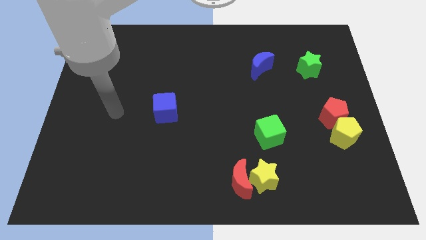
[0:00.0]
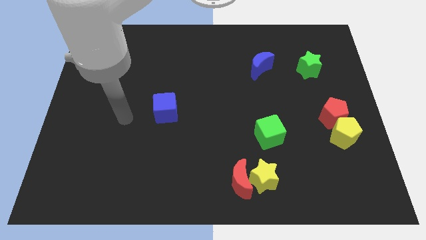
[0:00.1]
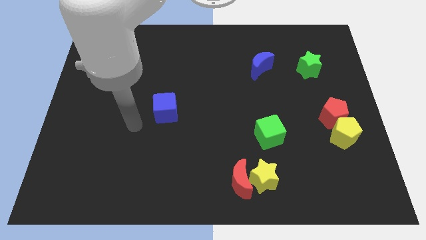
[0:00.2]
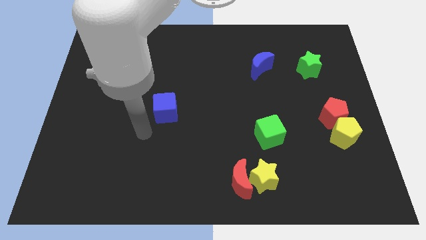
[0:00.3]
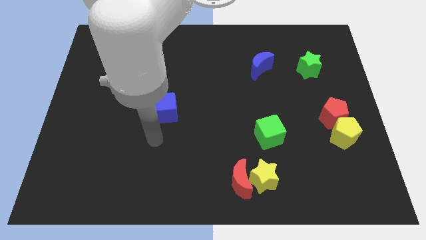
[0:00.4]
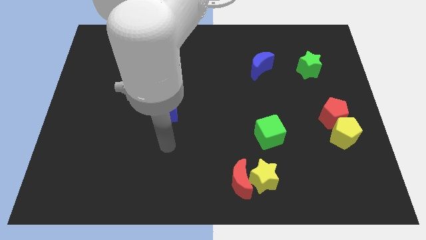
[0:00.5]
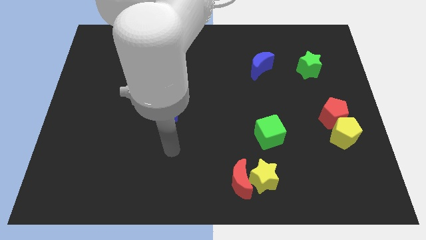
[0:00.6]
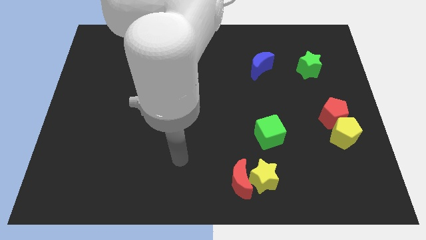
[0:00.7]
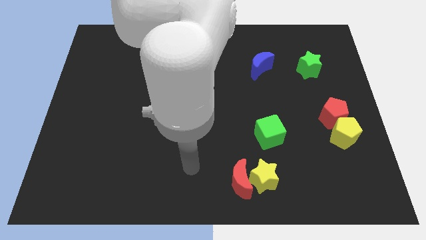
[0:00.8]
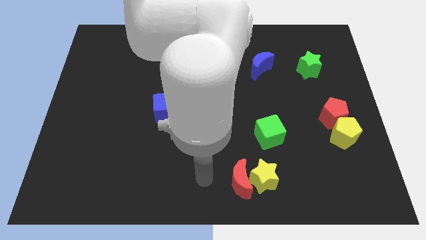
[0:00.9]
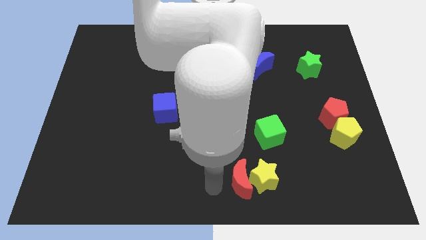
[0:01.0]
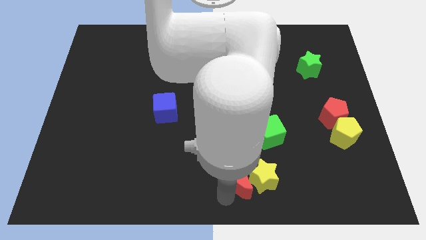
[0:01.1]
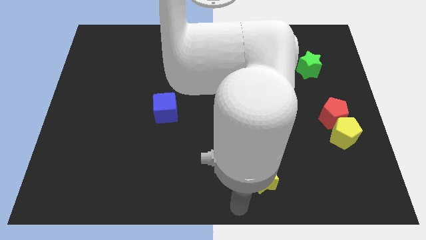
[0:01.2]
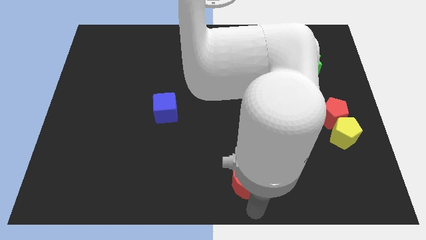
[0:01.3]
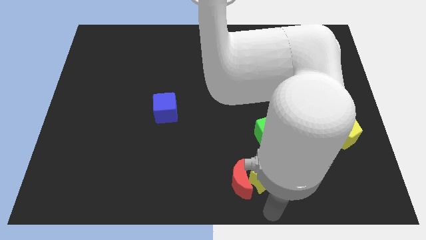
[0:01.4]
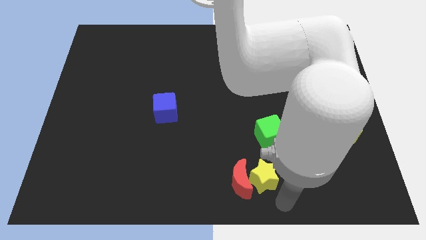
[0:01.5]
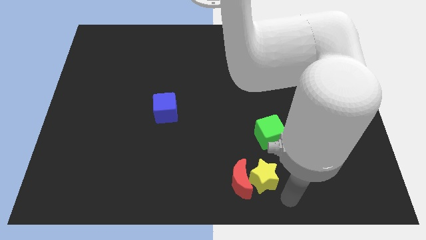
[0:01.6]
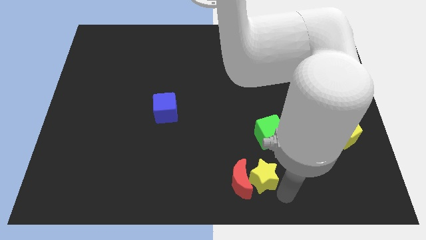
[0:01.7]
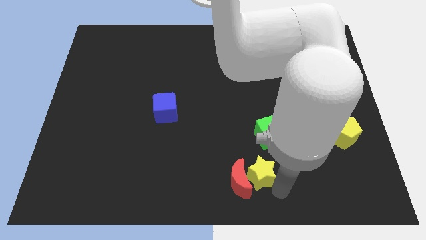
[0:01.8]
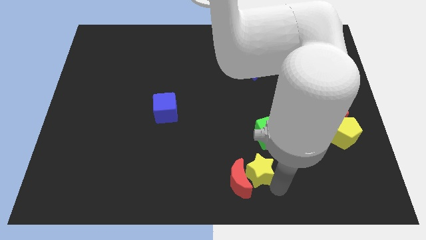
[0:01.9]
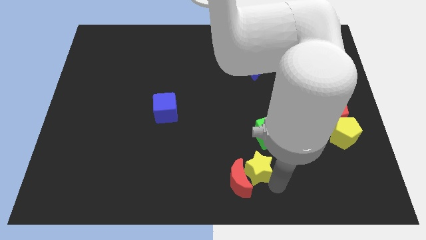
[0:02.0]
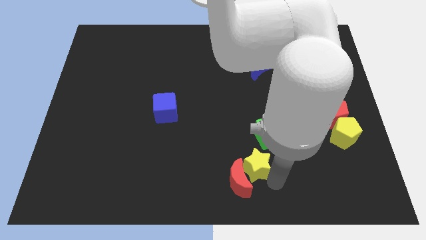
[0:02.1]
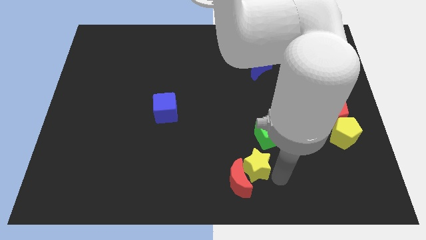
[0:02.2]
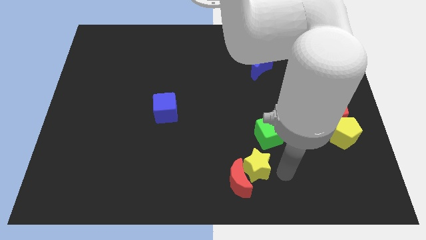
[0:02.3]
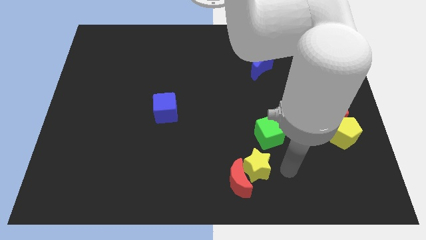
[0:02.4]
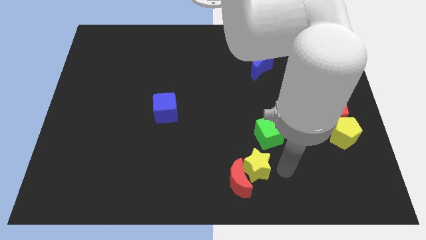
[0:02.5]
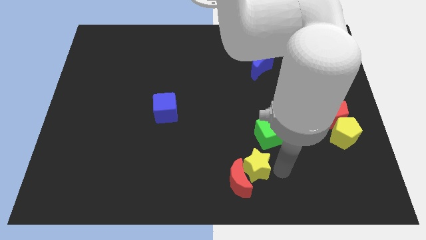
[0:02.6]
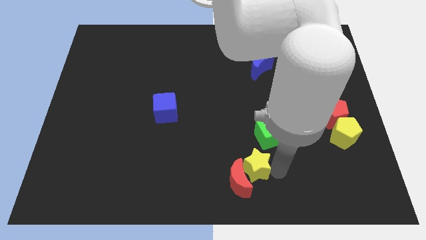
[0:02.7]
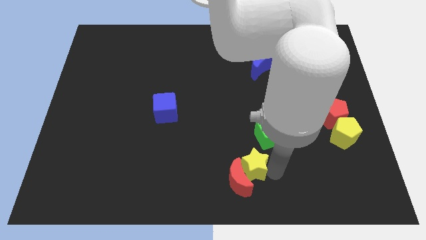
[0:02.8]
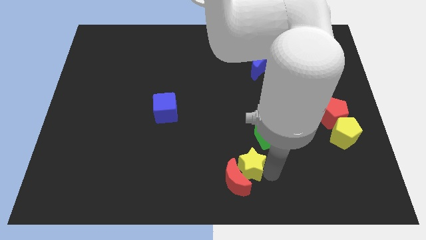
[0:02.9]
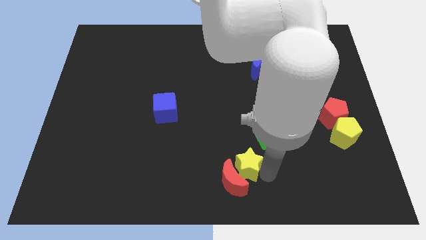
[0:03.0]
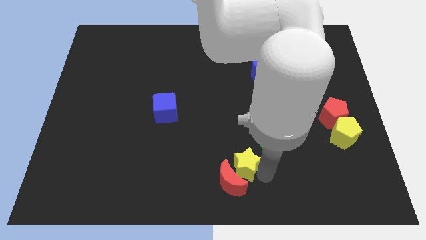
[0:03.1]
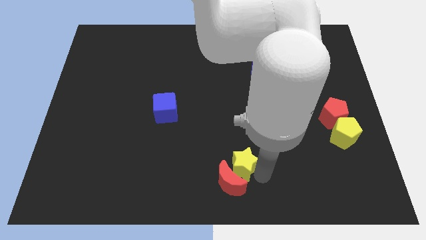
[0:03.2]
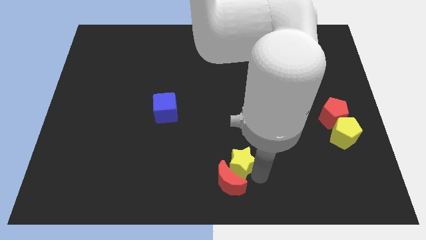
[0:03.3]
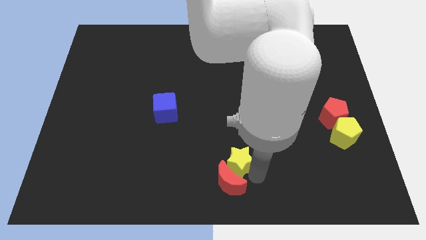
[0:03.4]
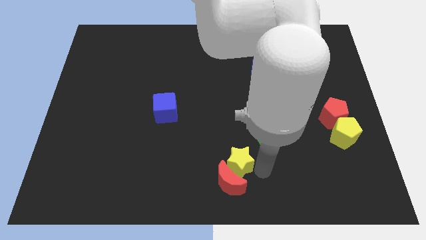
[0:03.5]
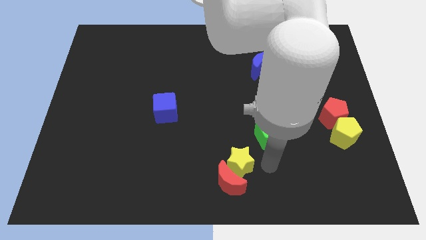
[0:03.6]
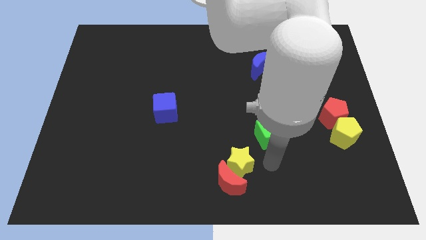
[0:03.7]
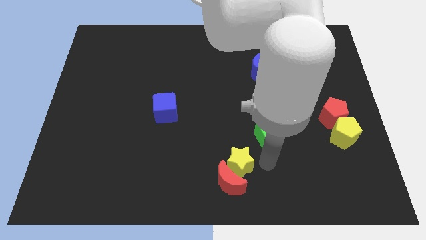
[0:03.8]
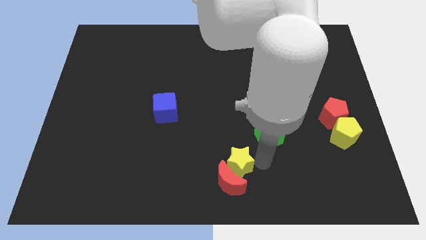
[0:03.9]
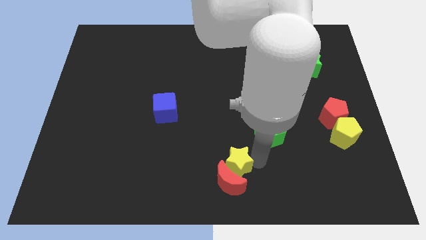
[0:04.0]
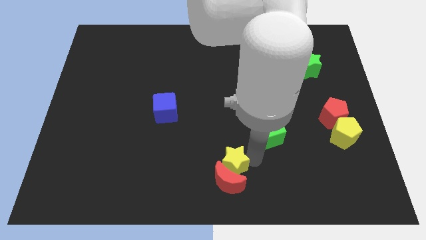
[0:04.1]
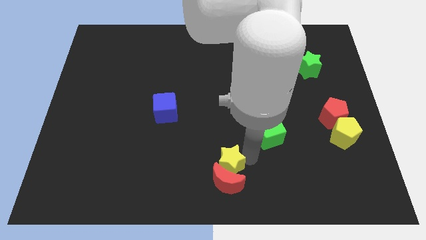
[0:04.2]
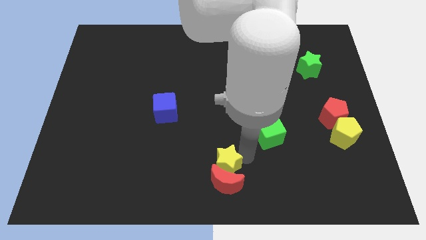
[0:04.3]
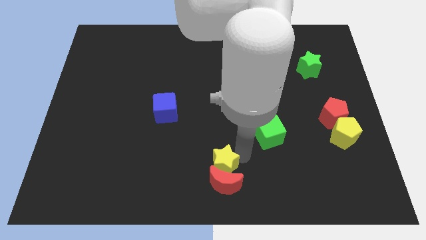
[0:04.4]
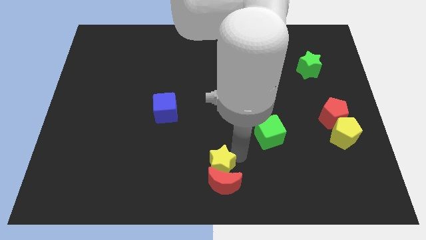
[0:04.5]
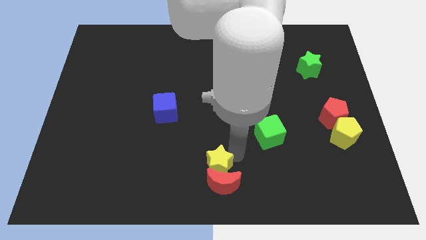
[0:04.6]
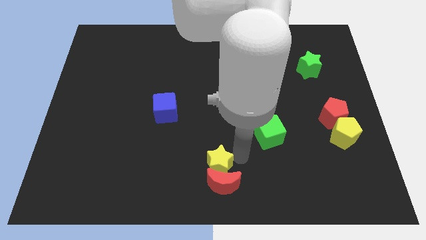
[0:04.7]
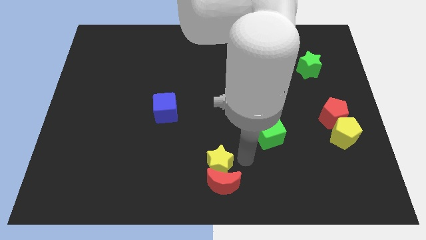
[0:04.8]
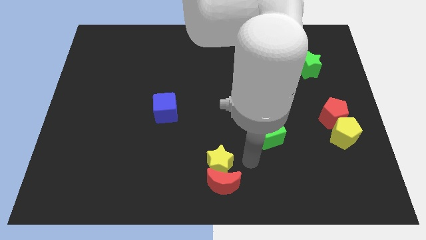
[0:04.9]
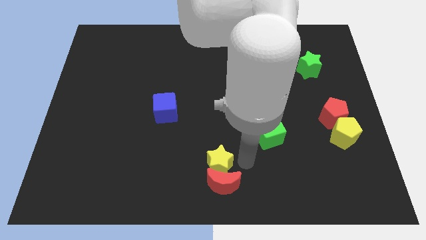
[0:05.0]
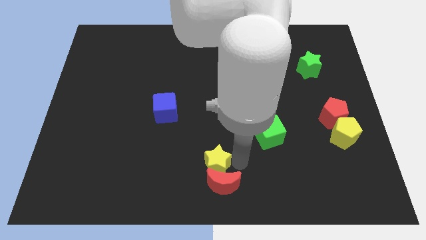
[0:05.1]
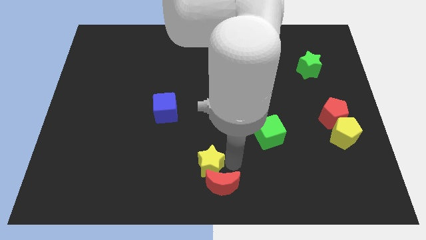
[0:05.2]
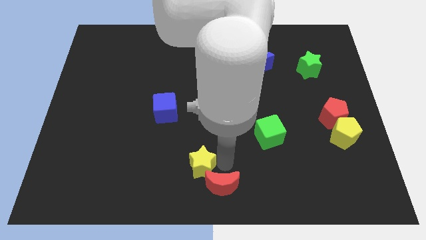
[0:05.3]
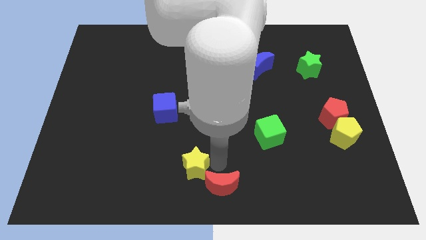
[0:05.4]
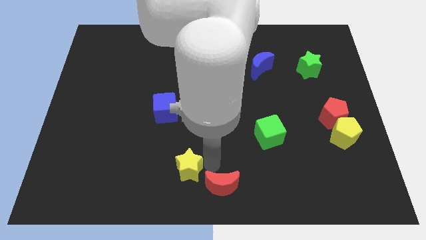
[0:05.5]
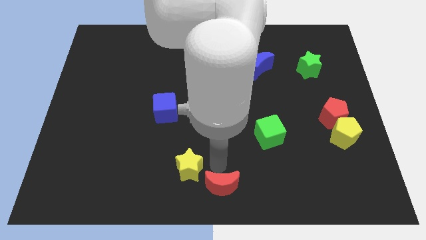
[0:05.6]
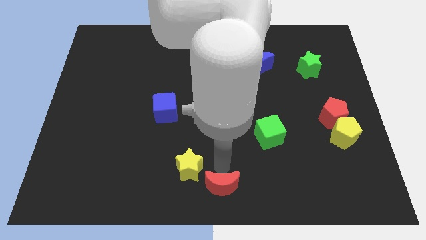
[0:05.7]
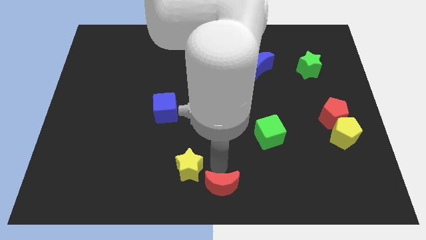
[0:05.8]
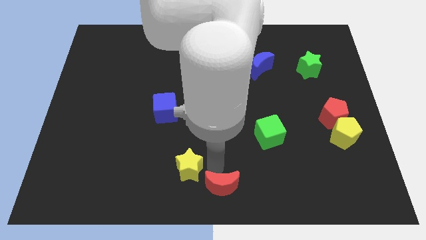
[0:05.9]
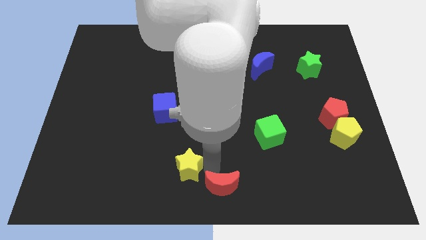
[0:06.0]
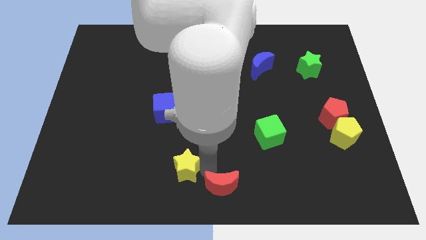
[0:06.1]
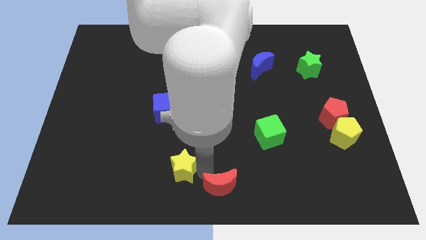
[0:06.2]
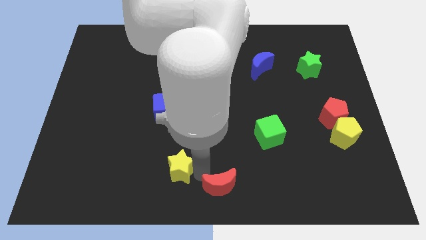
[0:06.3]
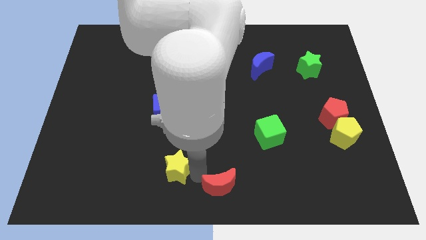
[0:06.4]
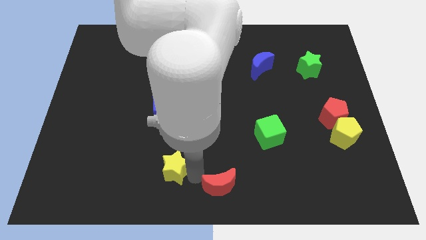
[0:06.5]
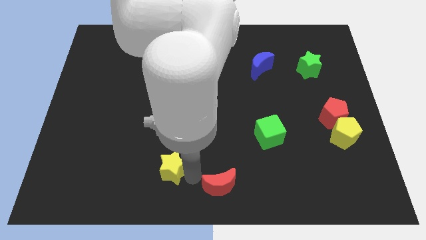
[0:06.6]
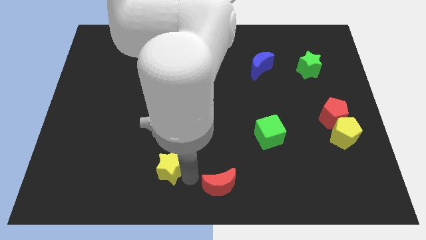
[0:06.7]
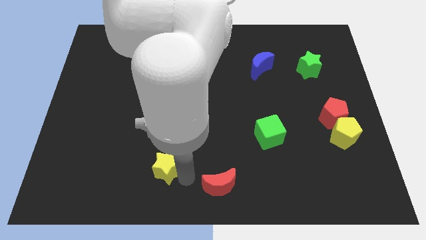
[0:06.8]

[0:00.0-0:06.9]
move the yellow star left

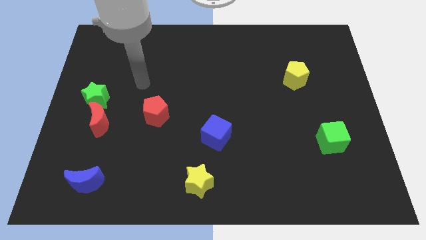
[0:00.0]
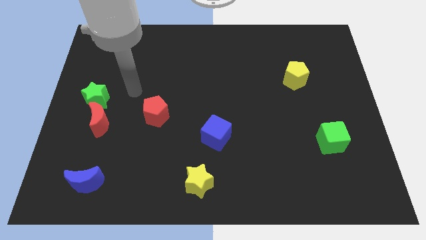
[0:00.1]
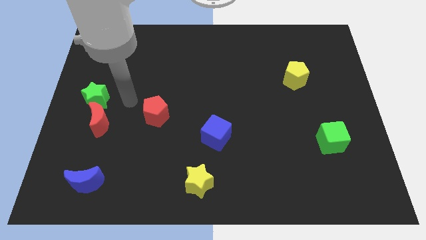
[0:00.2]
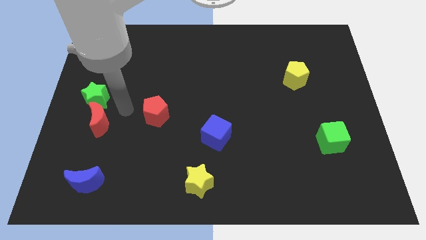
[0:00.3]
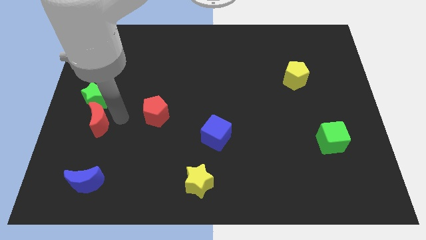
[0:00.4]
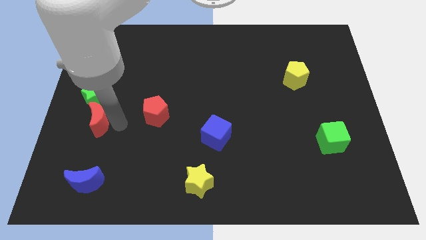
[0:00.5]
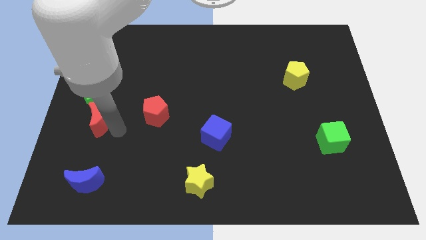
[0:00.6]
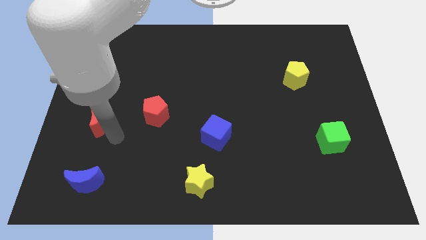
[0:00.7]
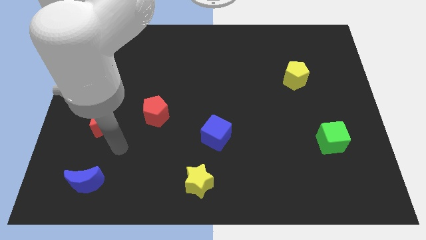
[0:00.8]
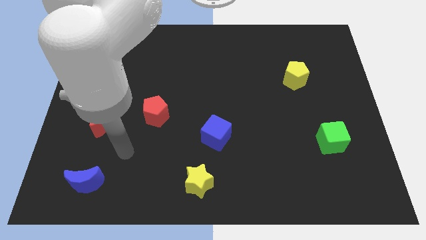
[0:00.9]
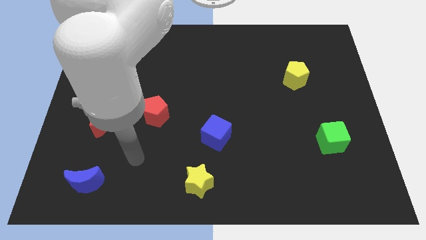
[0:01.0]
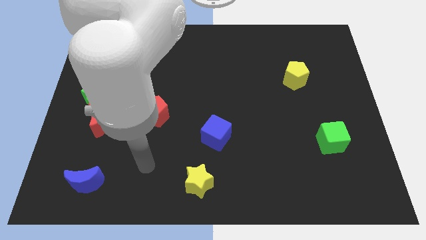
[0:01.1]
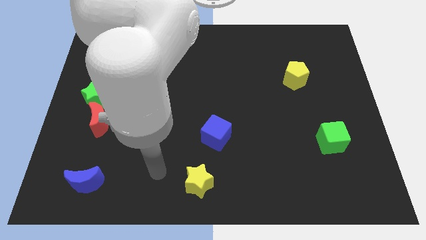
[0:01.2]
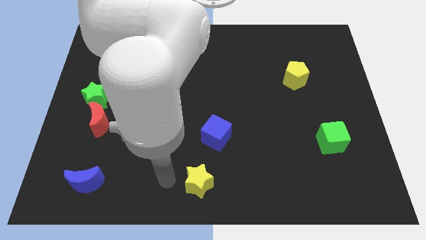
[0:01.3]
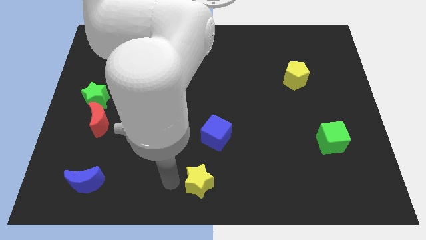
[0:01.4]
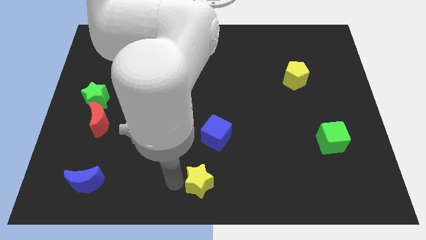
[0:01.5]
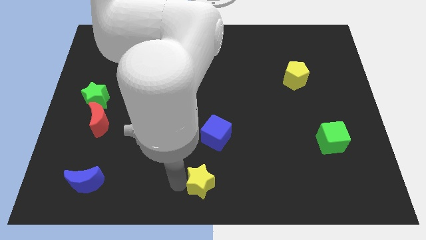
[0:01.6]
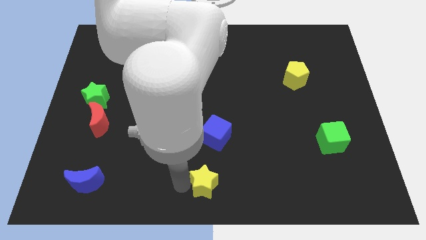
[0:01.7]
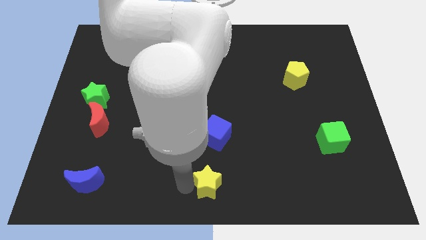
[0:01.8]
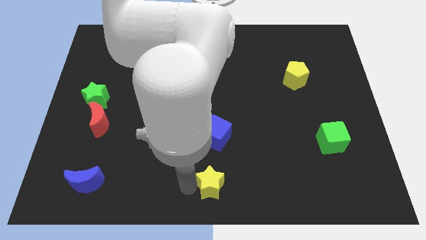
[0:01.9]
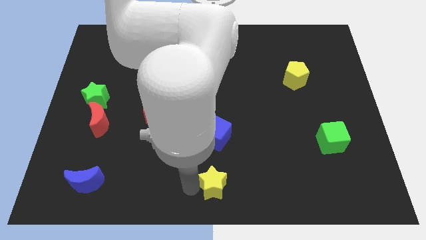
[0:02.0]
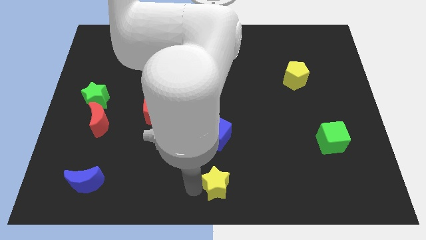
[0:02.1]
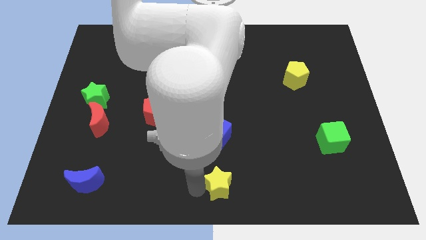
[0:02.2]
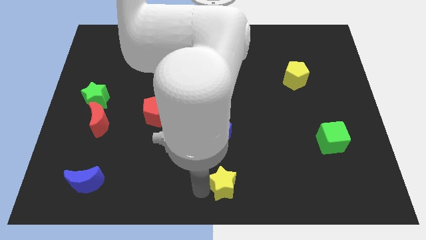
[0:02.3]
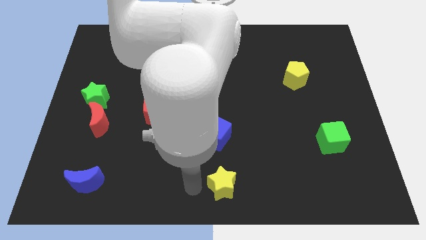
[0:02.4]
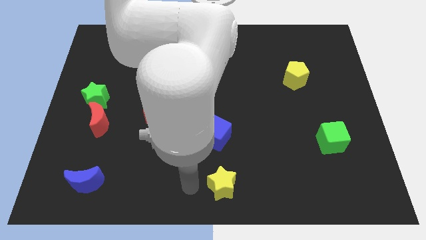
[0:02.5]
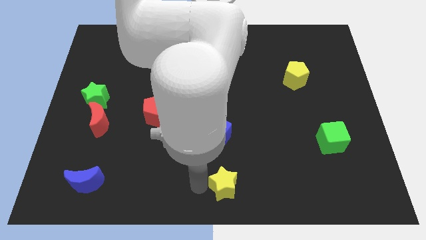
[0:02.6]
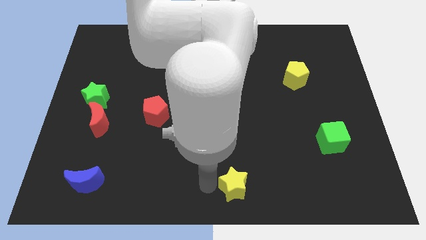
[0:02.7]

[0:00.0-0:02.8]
push the yellow star a little right
